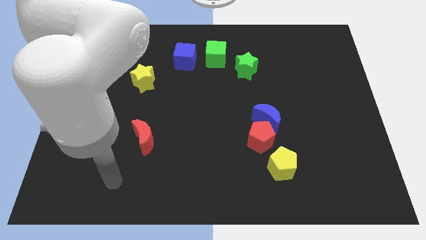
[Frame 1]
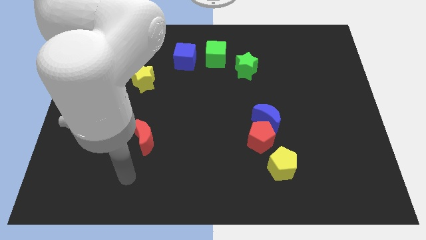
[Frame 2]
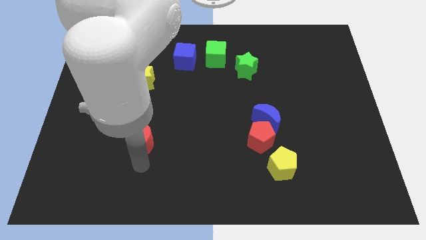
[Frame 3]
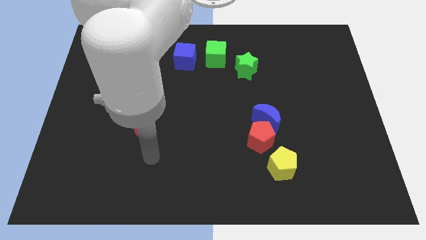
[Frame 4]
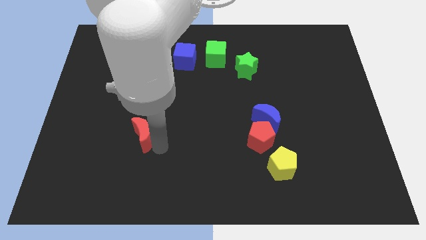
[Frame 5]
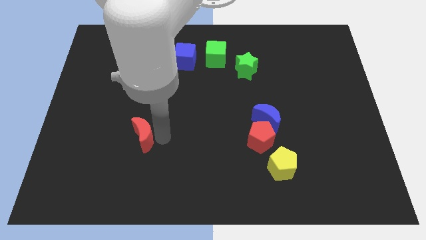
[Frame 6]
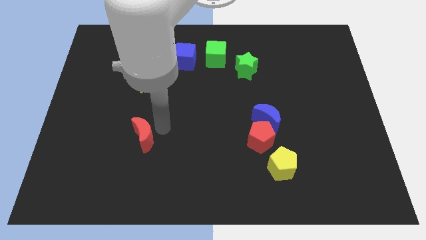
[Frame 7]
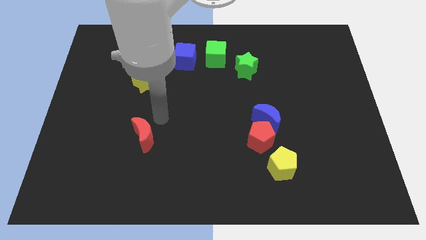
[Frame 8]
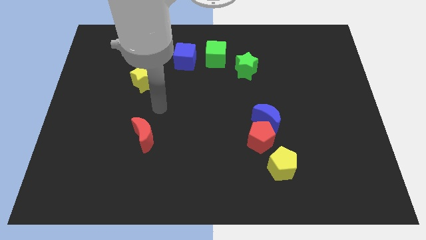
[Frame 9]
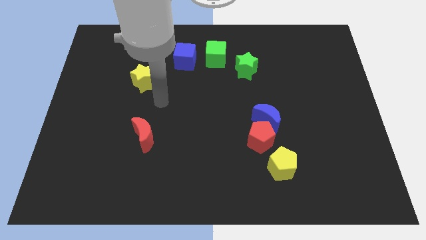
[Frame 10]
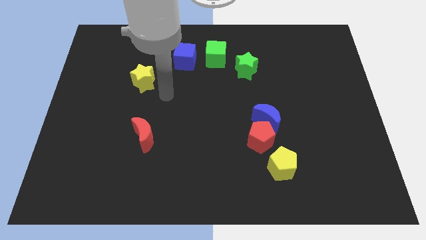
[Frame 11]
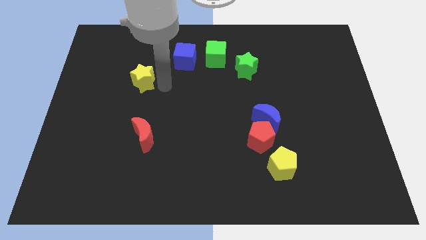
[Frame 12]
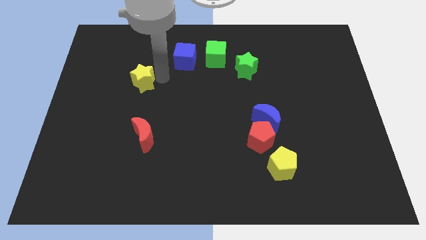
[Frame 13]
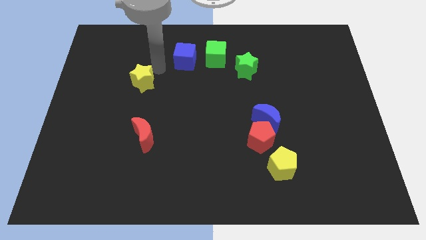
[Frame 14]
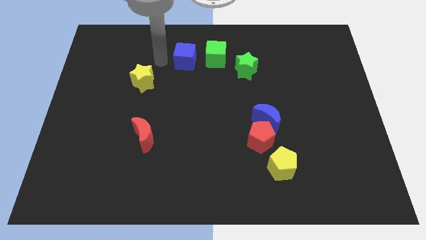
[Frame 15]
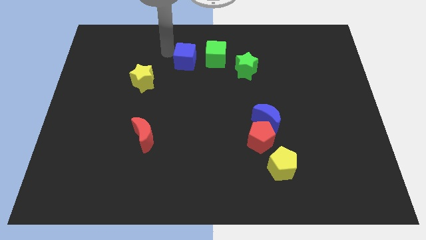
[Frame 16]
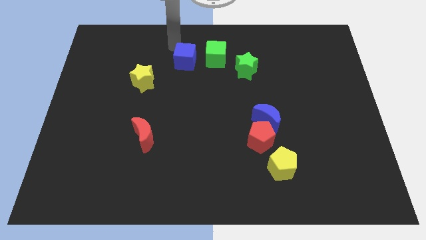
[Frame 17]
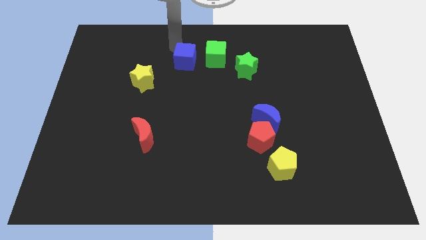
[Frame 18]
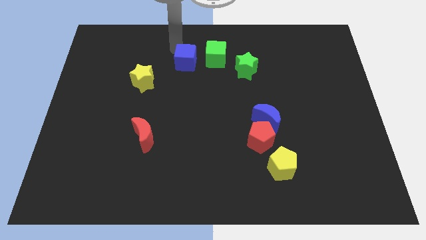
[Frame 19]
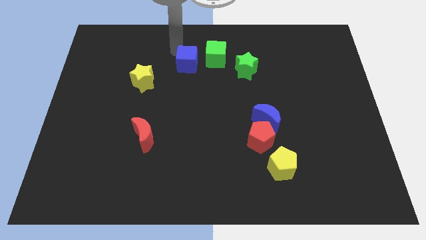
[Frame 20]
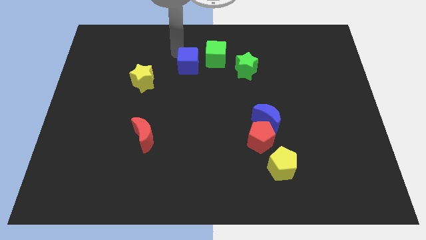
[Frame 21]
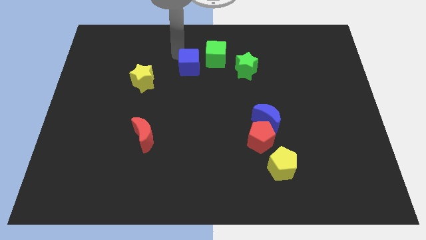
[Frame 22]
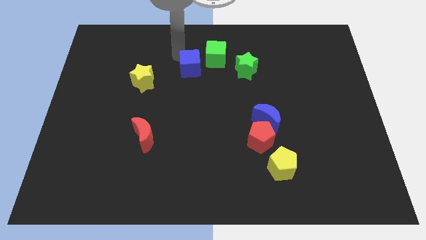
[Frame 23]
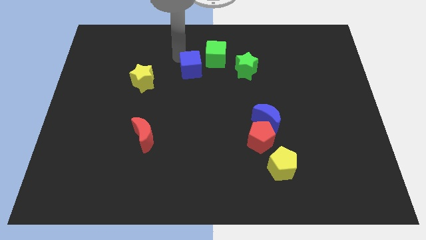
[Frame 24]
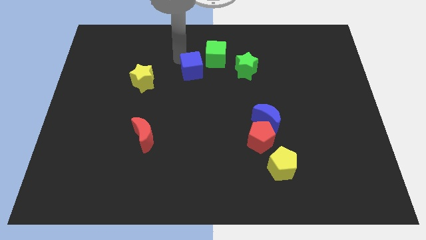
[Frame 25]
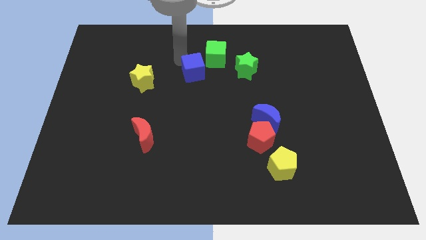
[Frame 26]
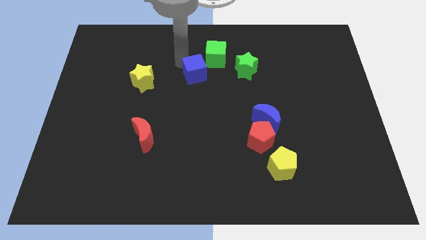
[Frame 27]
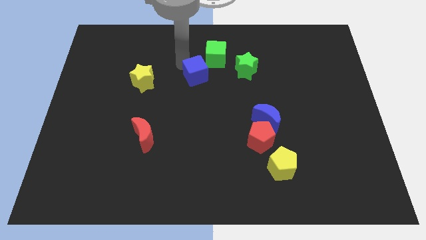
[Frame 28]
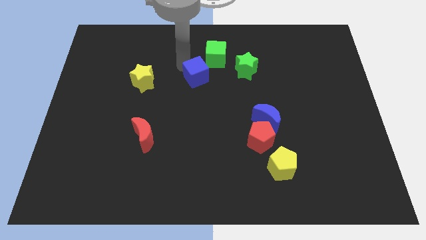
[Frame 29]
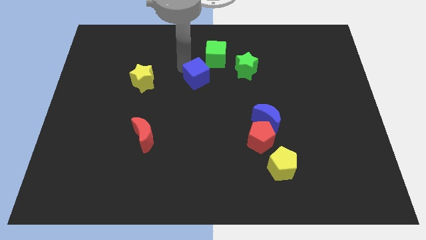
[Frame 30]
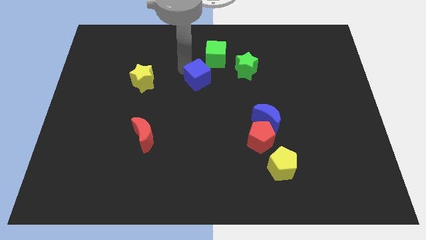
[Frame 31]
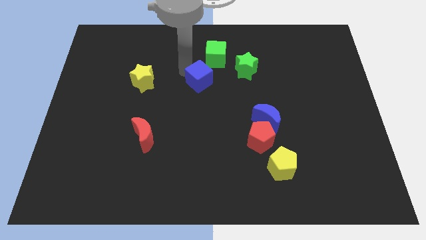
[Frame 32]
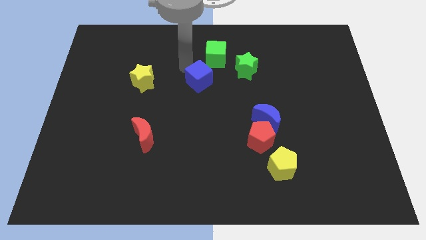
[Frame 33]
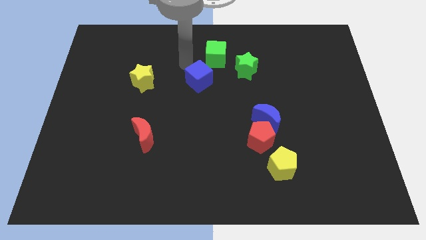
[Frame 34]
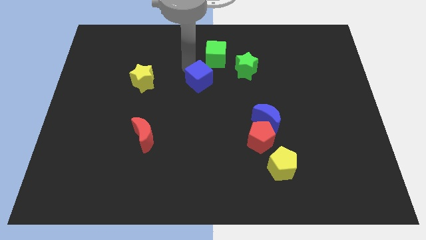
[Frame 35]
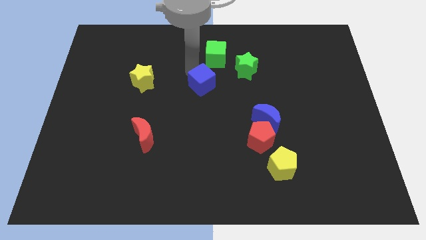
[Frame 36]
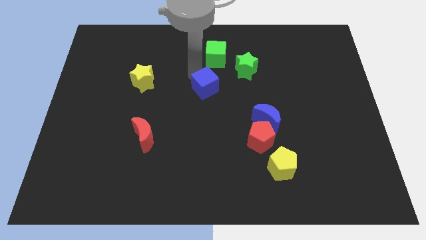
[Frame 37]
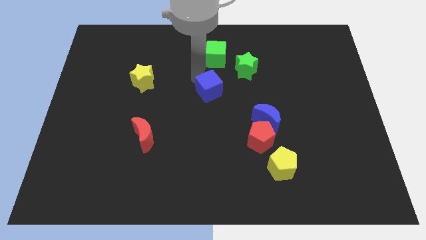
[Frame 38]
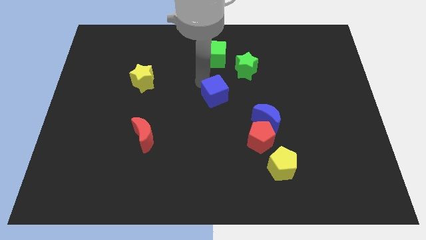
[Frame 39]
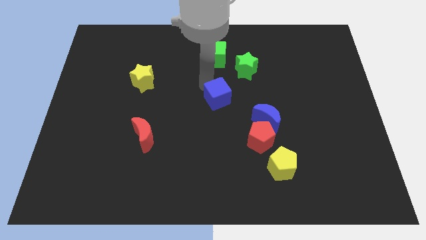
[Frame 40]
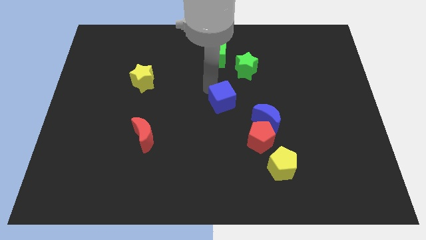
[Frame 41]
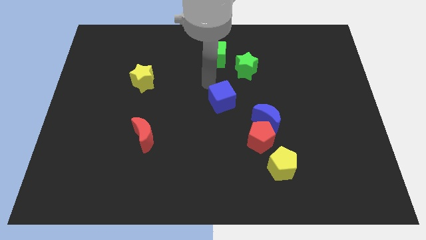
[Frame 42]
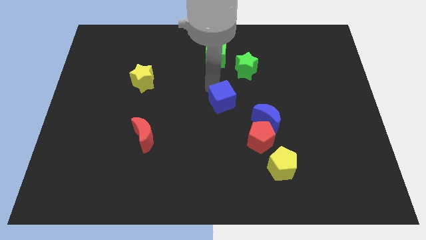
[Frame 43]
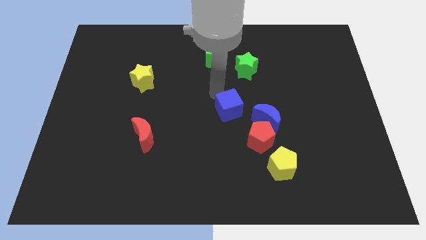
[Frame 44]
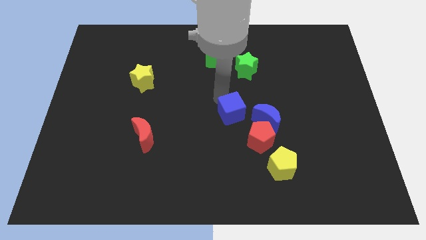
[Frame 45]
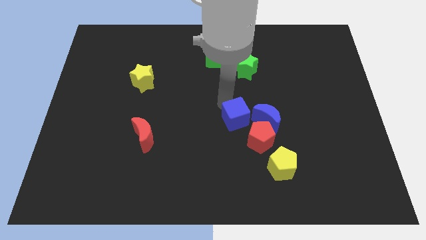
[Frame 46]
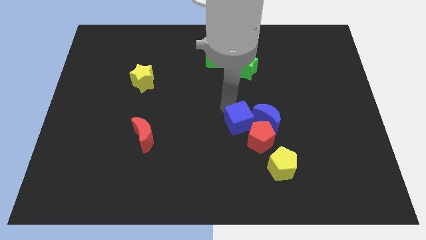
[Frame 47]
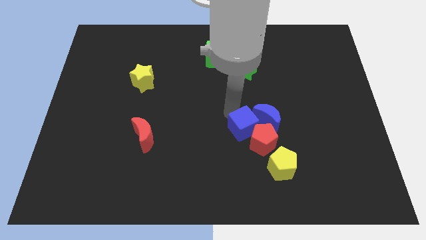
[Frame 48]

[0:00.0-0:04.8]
slide the blue cube to the red pentagon

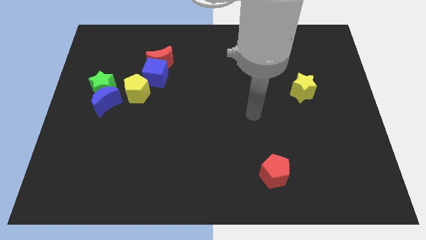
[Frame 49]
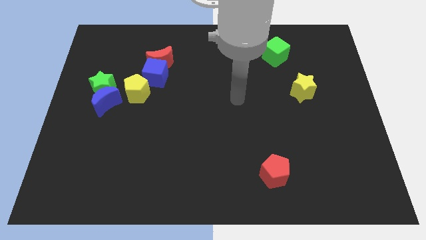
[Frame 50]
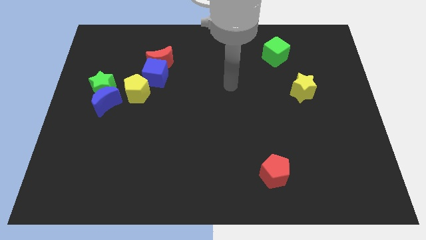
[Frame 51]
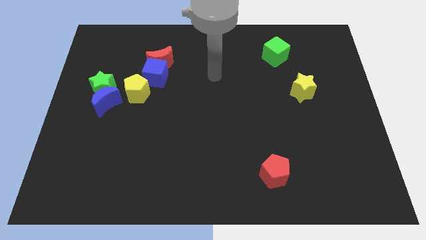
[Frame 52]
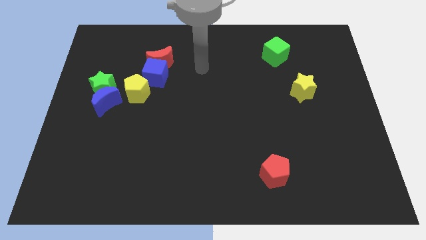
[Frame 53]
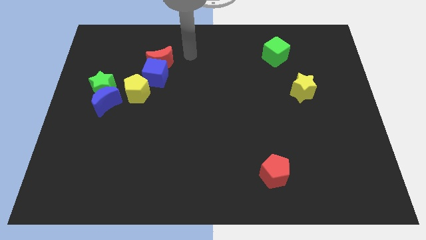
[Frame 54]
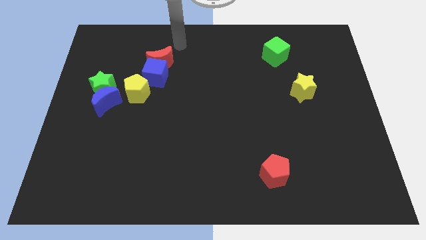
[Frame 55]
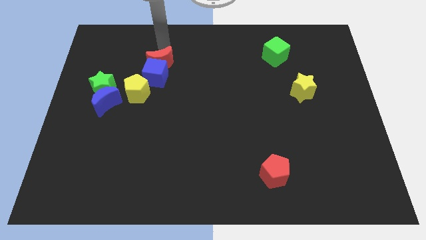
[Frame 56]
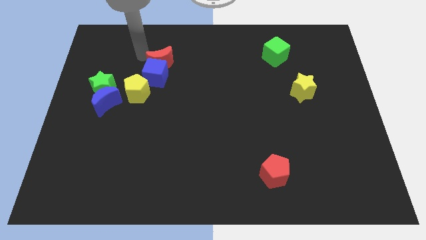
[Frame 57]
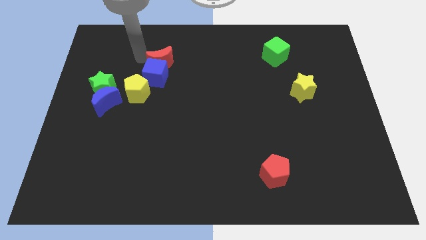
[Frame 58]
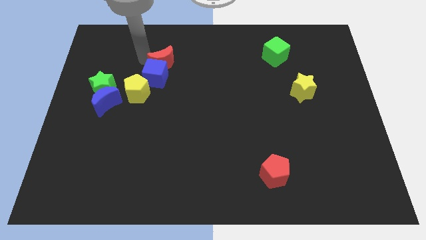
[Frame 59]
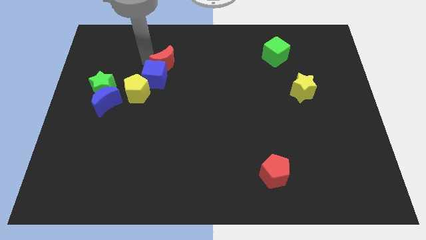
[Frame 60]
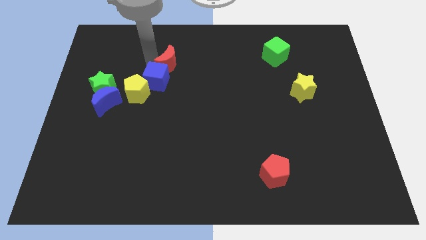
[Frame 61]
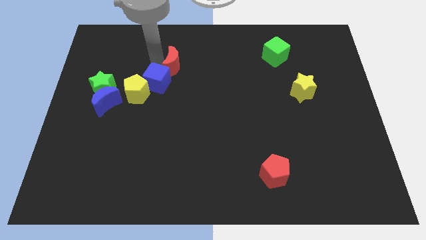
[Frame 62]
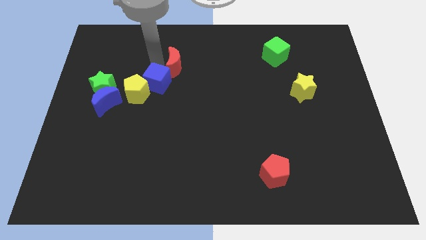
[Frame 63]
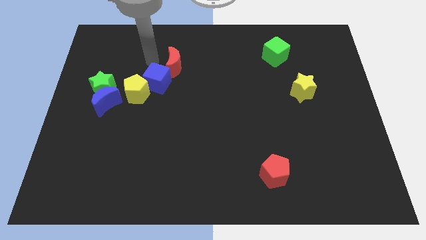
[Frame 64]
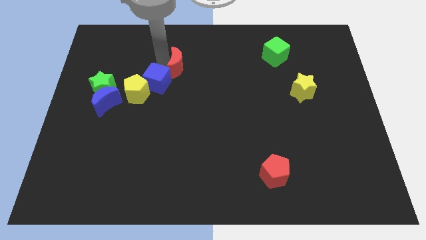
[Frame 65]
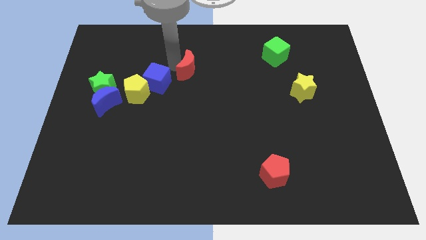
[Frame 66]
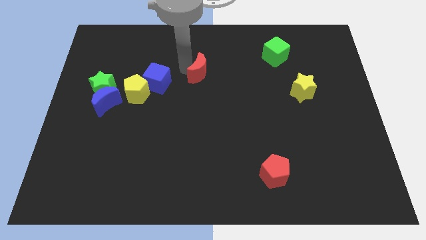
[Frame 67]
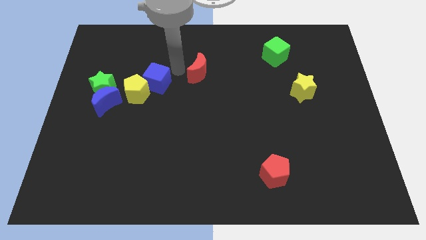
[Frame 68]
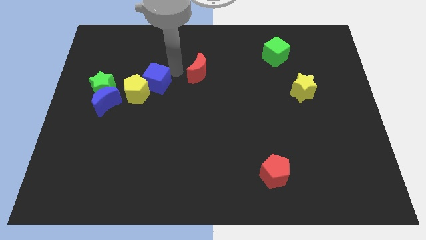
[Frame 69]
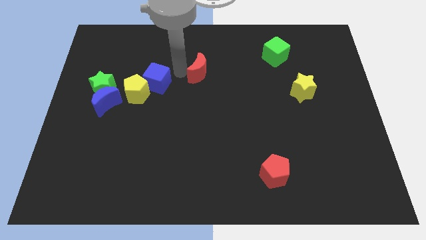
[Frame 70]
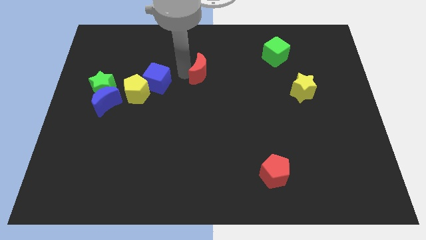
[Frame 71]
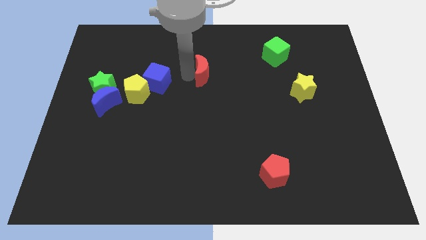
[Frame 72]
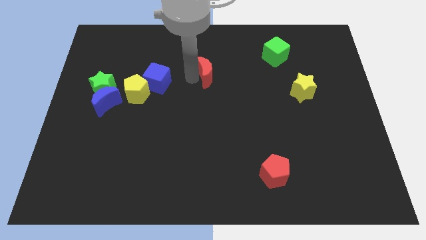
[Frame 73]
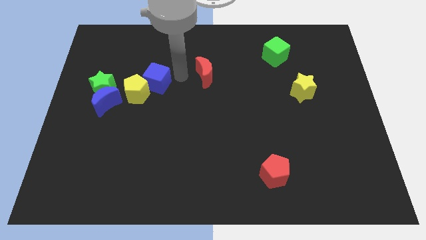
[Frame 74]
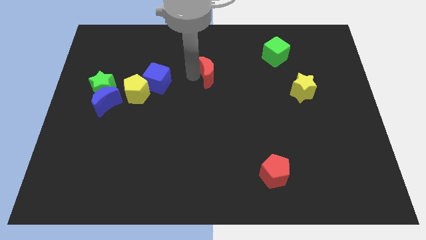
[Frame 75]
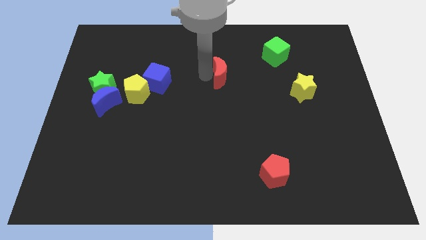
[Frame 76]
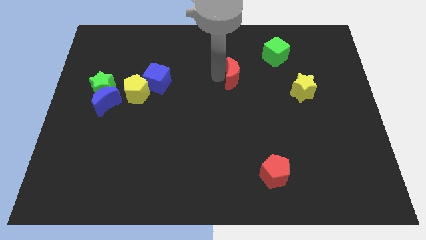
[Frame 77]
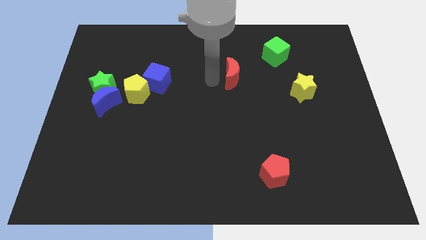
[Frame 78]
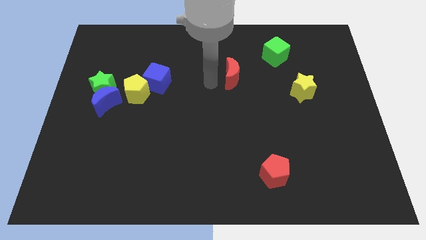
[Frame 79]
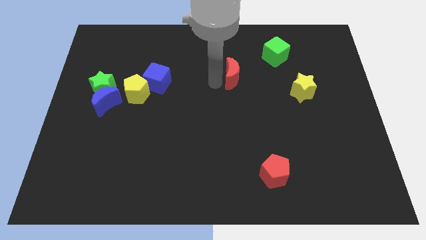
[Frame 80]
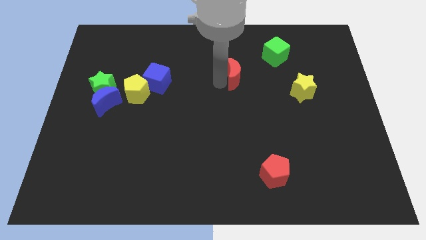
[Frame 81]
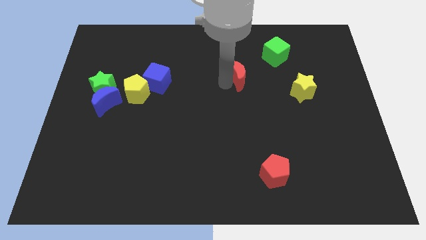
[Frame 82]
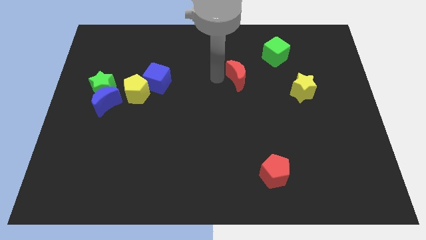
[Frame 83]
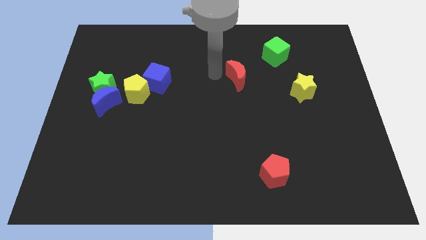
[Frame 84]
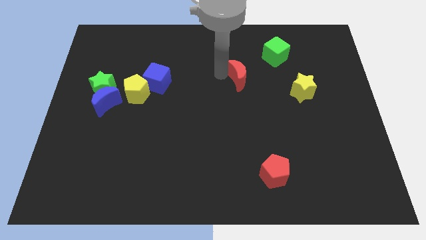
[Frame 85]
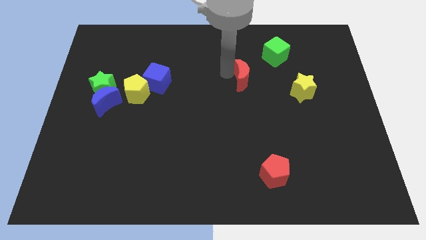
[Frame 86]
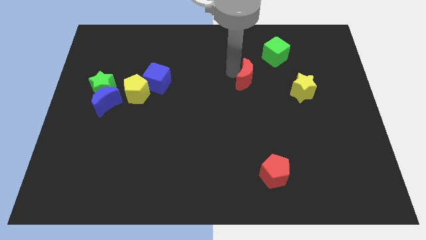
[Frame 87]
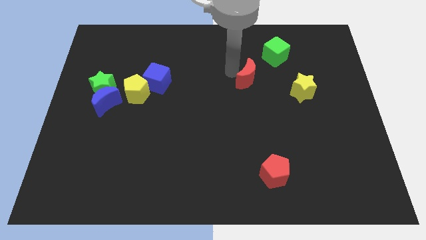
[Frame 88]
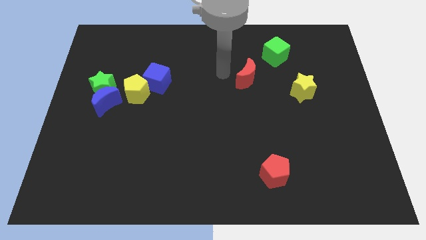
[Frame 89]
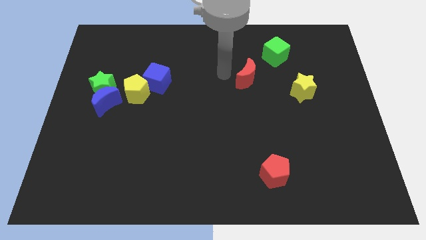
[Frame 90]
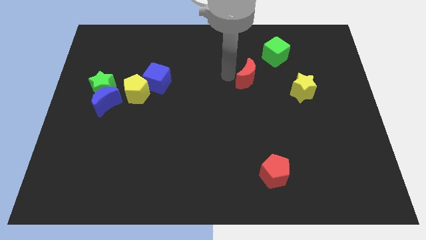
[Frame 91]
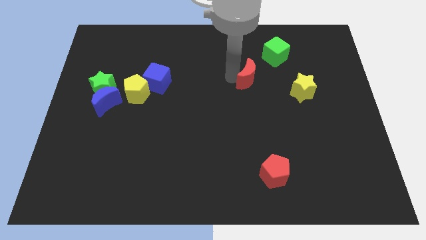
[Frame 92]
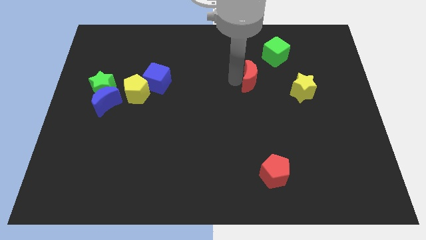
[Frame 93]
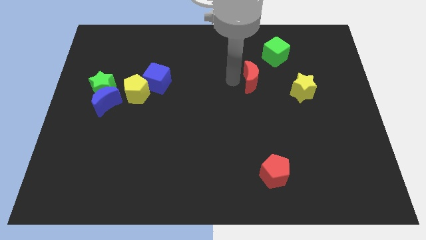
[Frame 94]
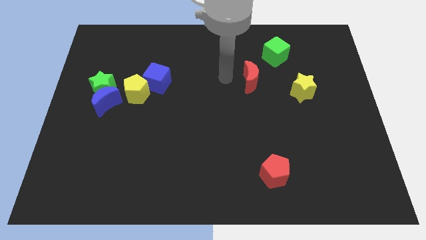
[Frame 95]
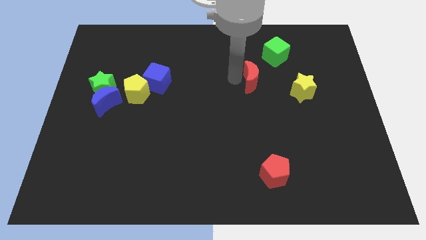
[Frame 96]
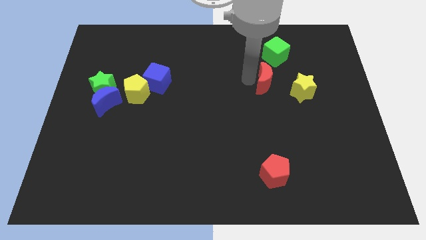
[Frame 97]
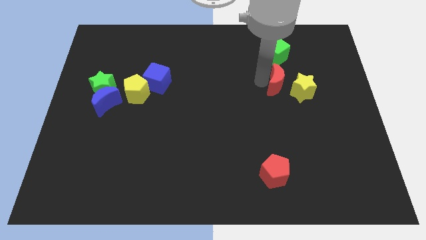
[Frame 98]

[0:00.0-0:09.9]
slide the red moon next to the yellow star
